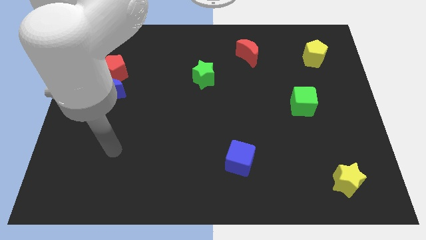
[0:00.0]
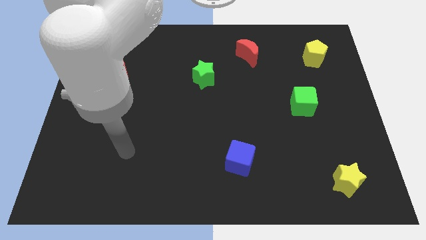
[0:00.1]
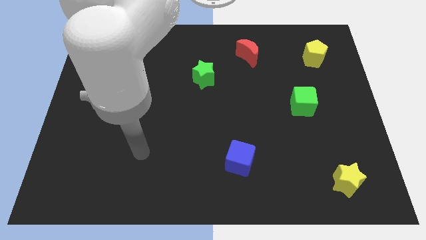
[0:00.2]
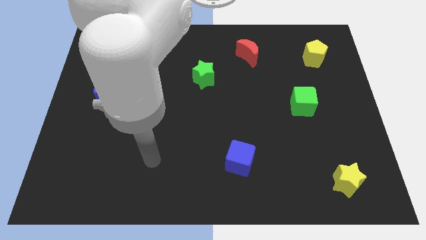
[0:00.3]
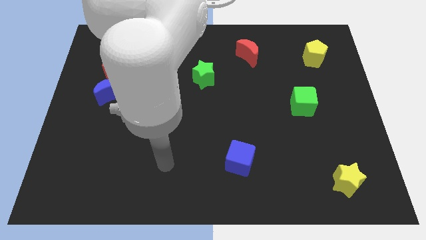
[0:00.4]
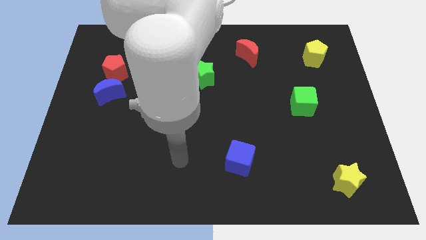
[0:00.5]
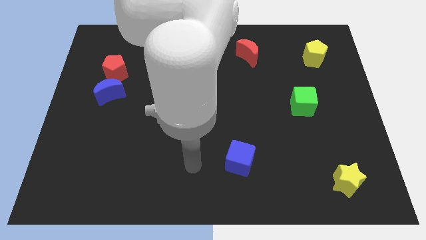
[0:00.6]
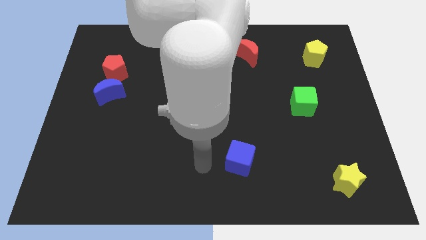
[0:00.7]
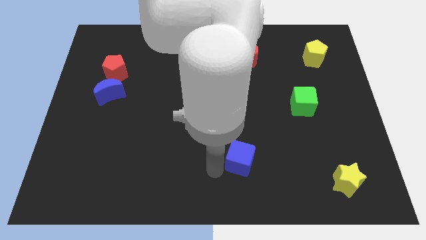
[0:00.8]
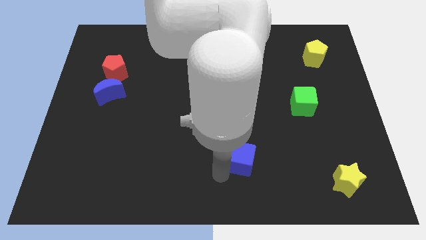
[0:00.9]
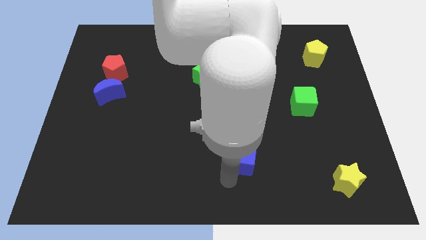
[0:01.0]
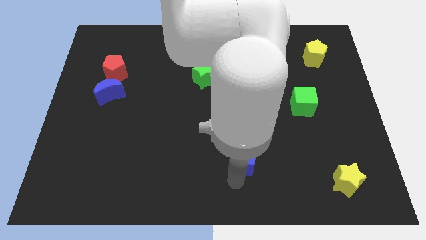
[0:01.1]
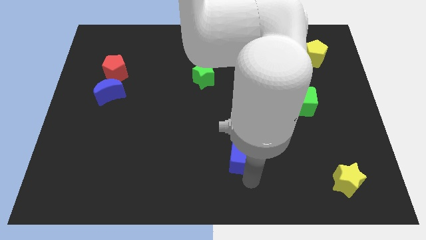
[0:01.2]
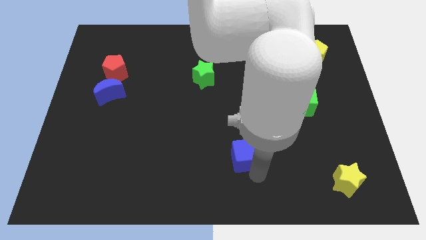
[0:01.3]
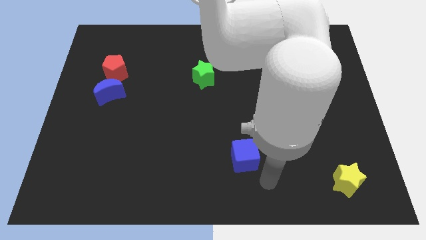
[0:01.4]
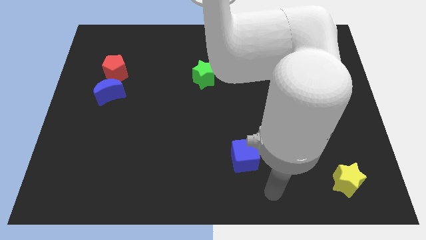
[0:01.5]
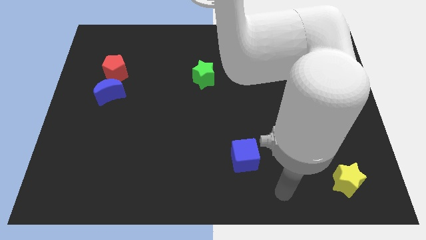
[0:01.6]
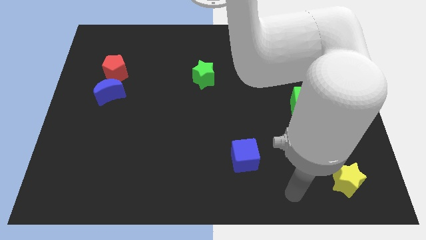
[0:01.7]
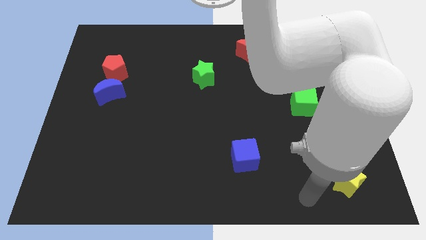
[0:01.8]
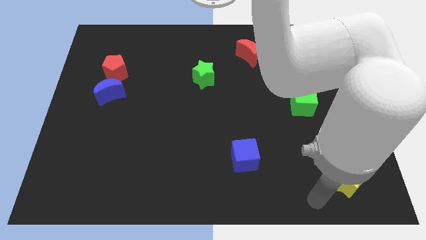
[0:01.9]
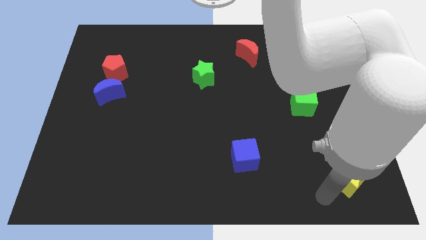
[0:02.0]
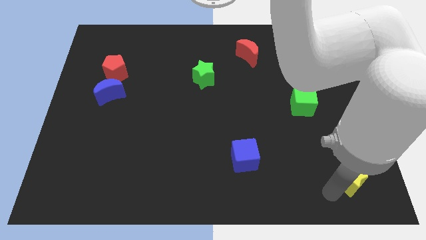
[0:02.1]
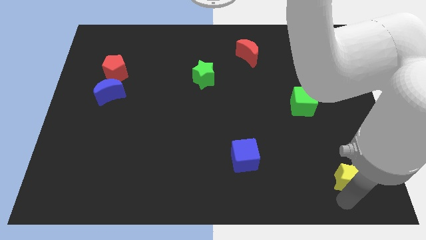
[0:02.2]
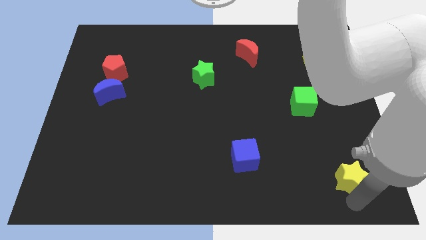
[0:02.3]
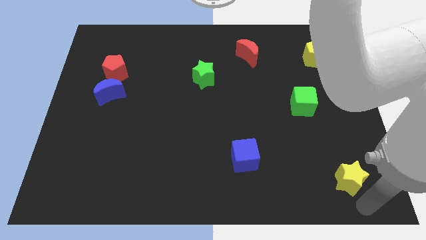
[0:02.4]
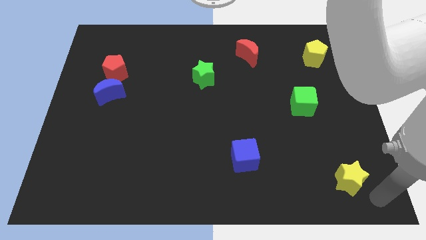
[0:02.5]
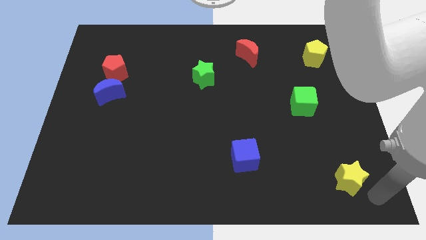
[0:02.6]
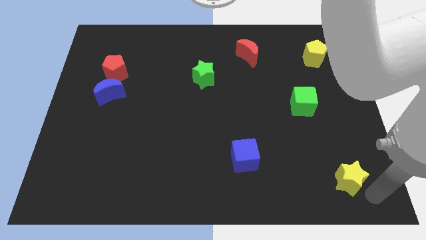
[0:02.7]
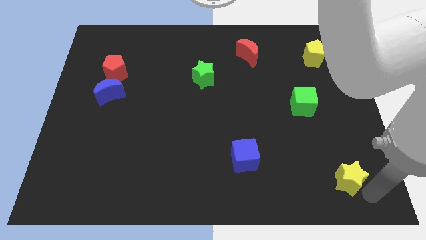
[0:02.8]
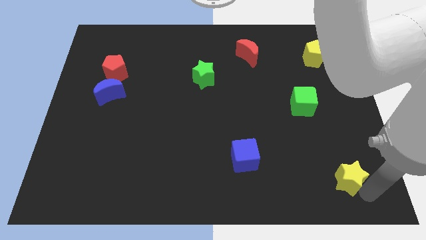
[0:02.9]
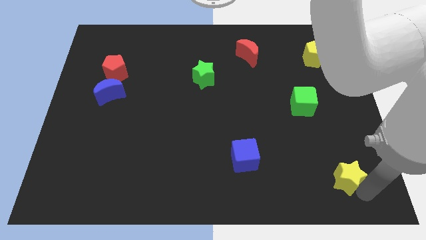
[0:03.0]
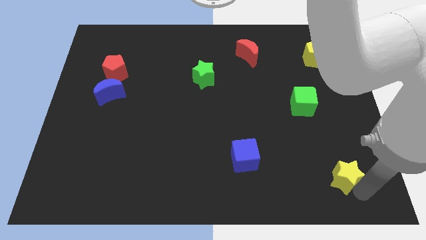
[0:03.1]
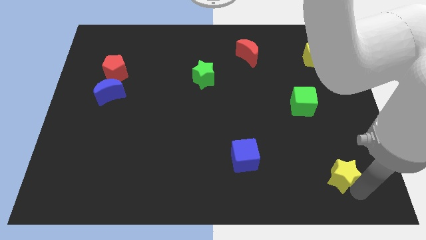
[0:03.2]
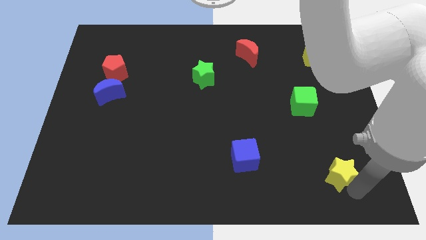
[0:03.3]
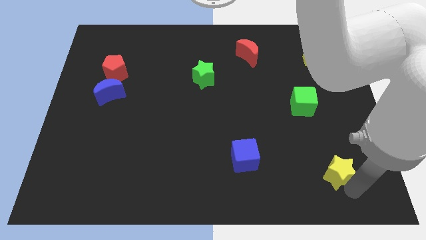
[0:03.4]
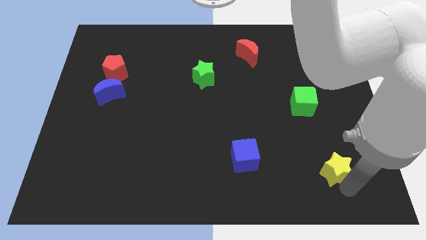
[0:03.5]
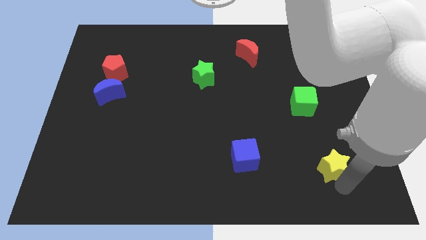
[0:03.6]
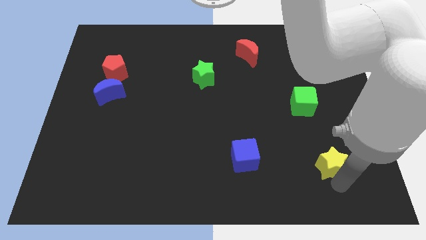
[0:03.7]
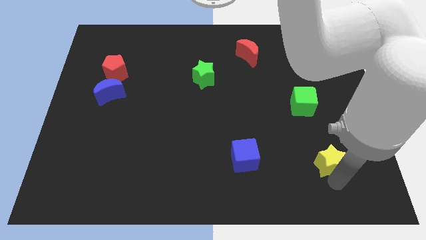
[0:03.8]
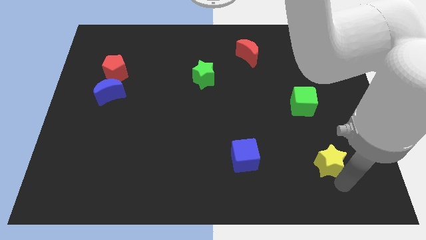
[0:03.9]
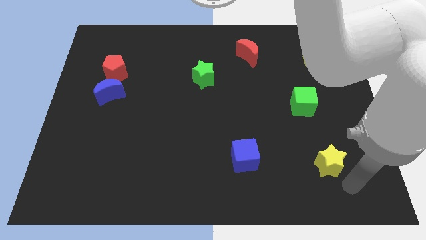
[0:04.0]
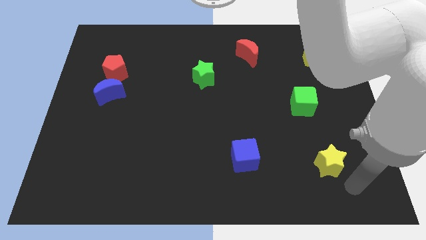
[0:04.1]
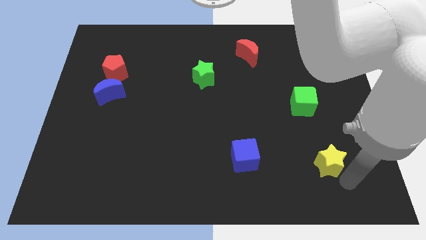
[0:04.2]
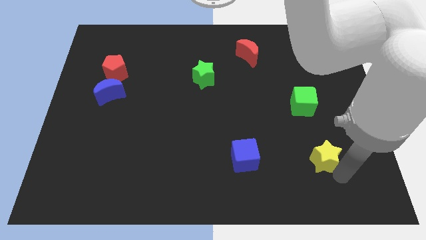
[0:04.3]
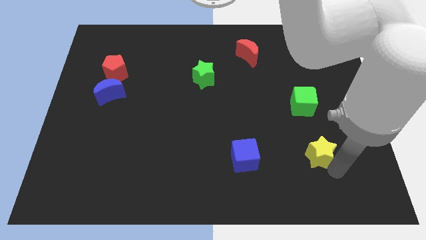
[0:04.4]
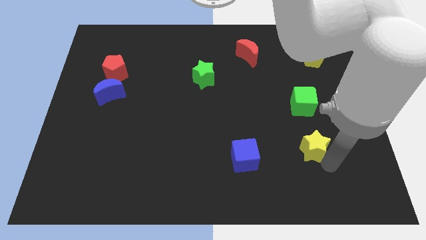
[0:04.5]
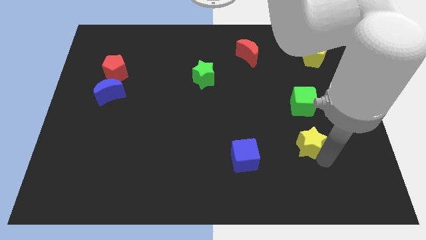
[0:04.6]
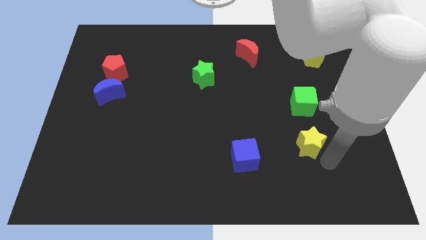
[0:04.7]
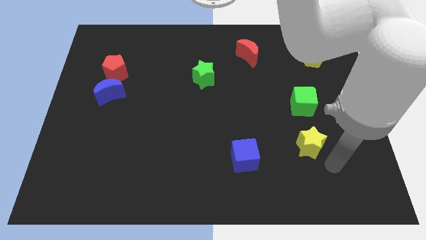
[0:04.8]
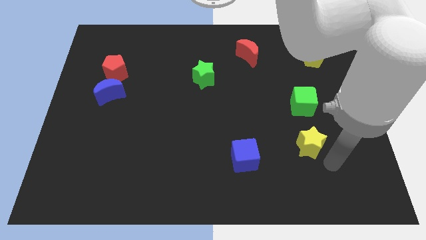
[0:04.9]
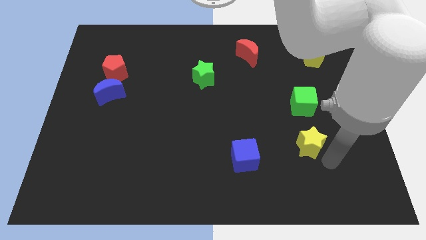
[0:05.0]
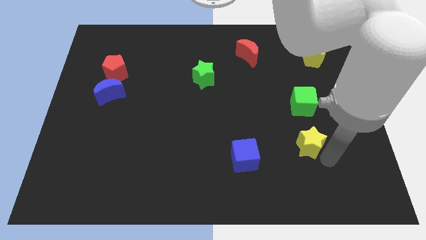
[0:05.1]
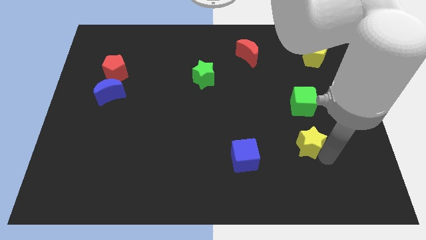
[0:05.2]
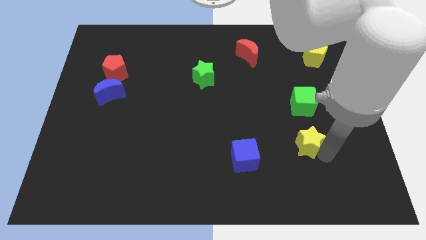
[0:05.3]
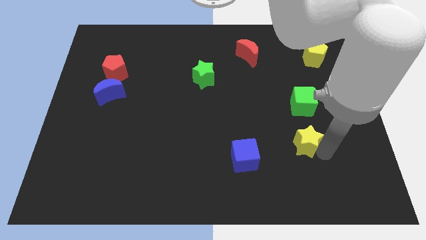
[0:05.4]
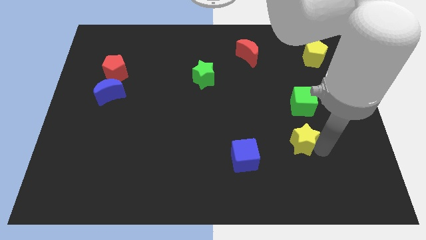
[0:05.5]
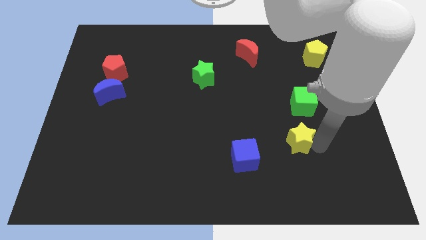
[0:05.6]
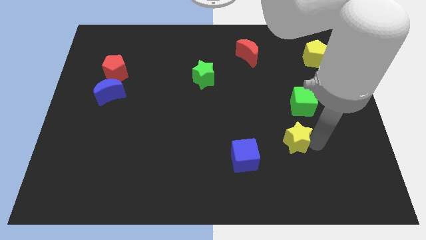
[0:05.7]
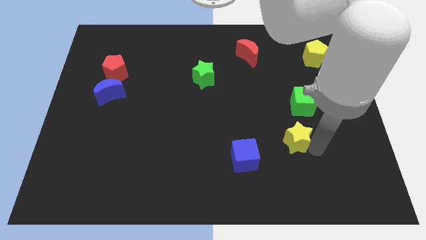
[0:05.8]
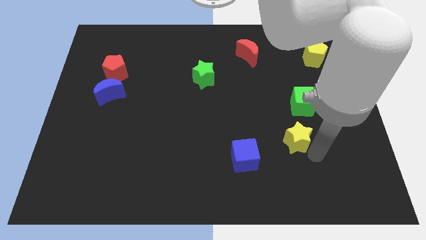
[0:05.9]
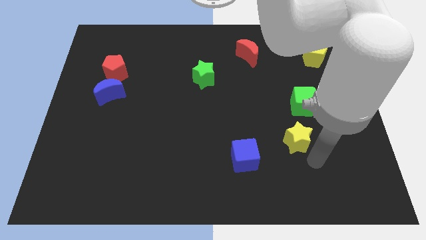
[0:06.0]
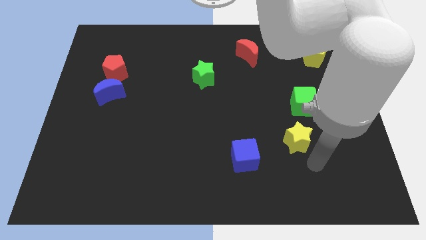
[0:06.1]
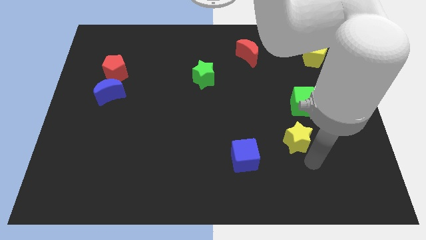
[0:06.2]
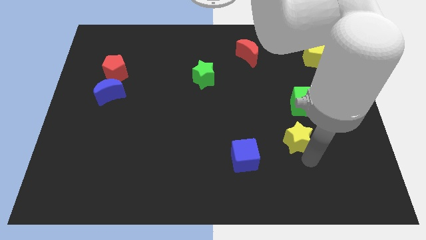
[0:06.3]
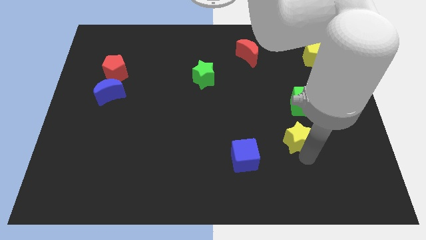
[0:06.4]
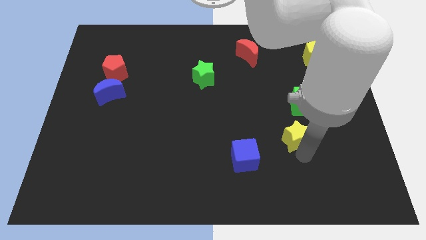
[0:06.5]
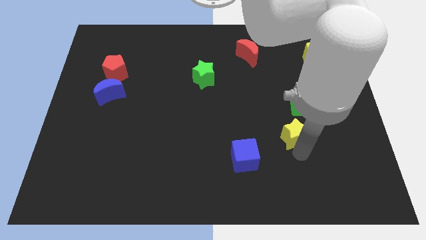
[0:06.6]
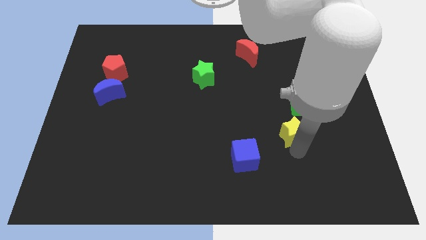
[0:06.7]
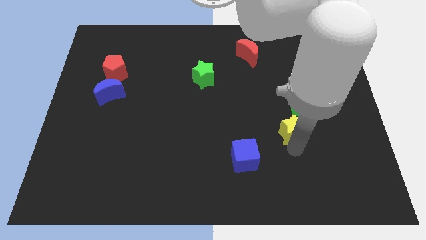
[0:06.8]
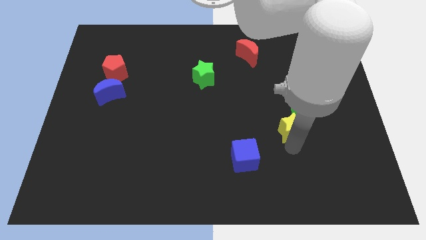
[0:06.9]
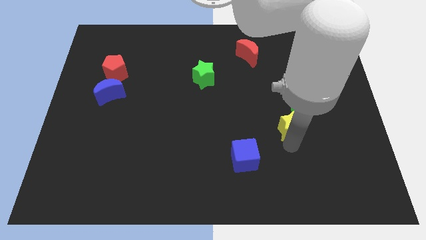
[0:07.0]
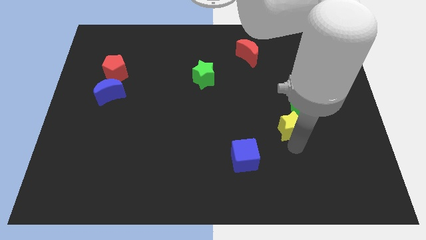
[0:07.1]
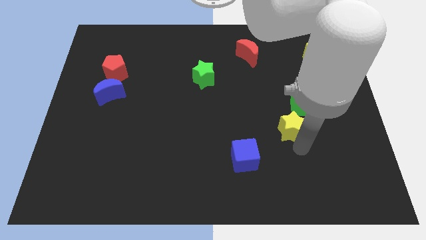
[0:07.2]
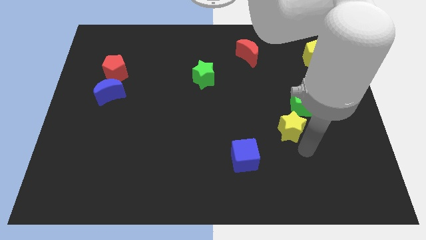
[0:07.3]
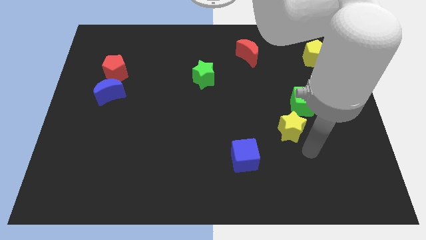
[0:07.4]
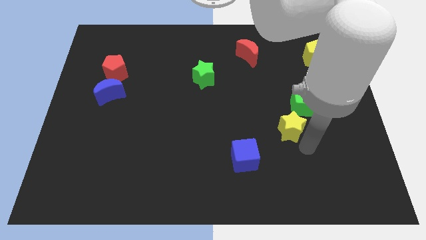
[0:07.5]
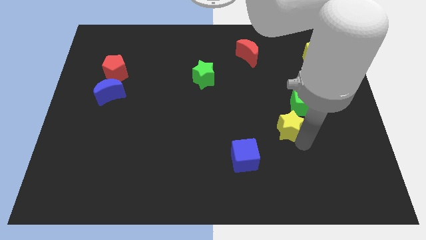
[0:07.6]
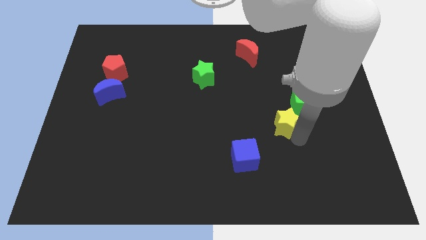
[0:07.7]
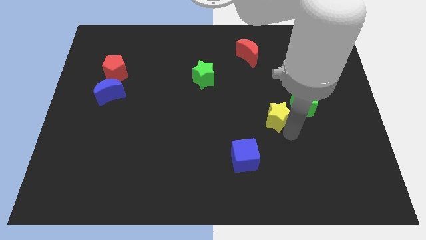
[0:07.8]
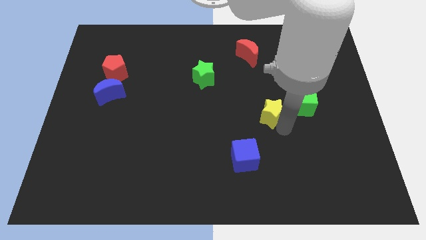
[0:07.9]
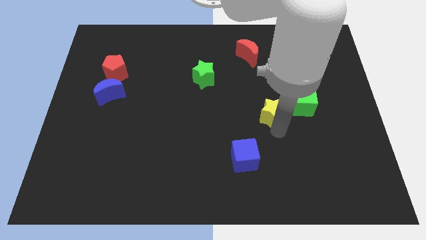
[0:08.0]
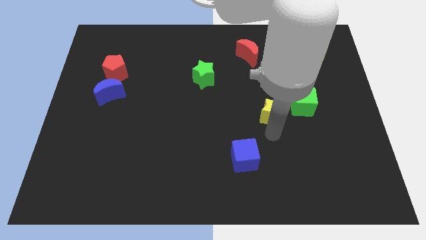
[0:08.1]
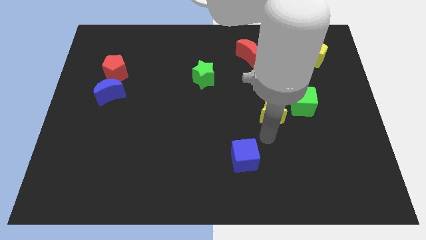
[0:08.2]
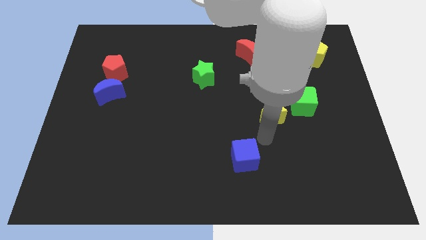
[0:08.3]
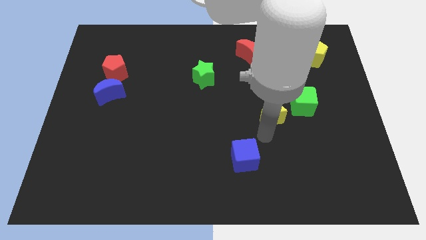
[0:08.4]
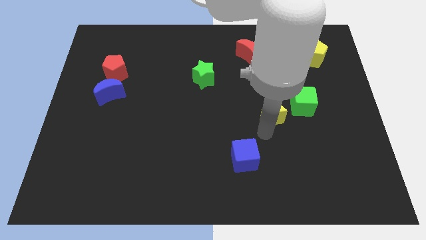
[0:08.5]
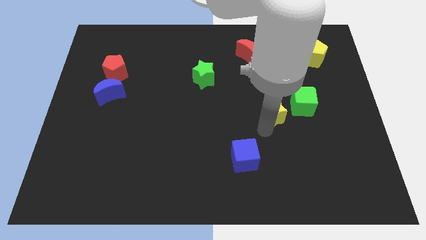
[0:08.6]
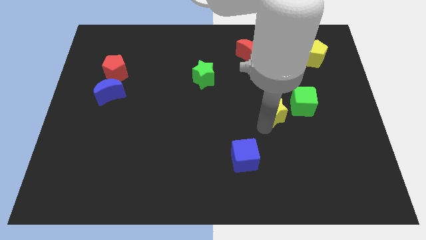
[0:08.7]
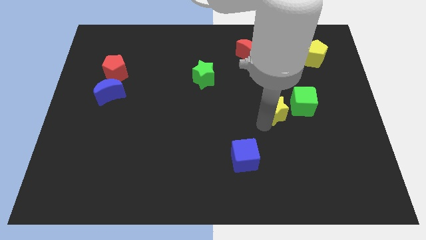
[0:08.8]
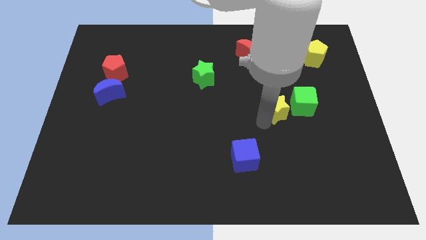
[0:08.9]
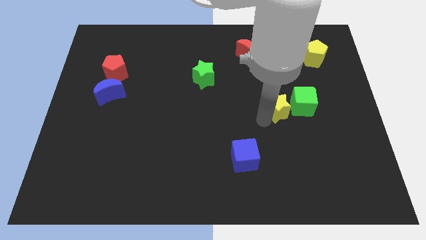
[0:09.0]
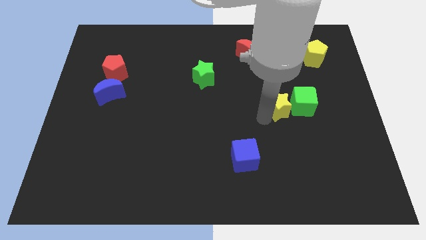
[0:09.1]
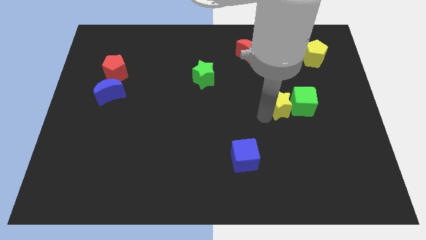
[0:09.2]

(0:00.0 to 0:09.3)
put the yellow star to the top left side of the green cube
